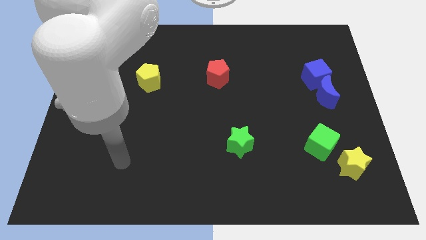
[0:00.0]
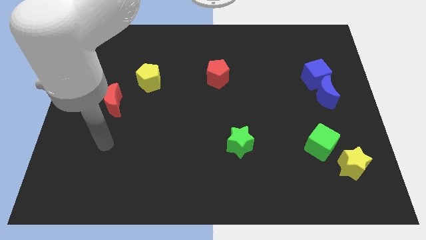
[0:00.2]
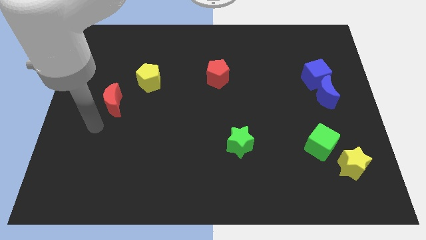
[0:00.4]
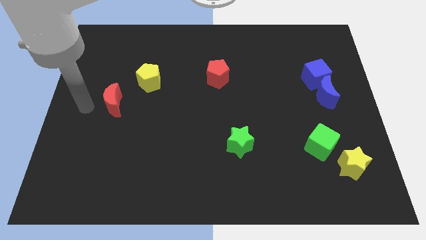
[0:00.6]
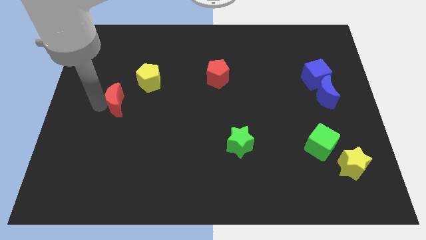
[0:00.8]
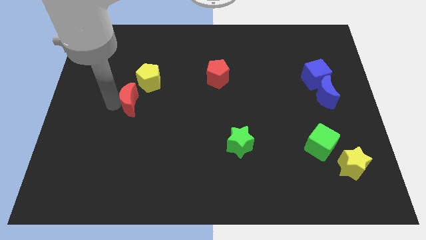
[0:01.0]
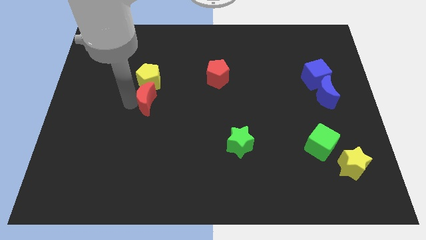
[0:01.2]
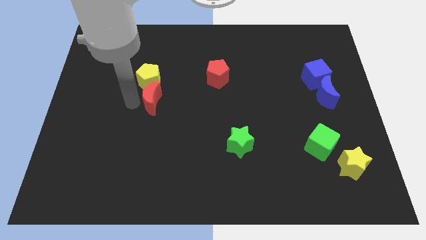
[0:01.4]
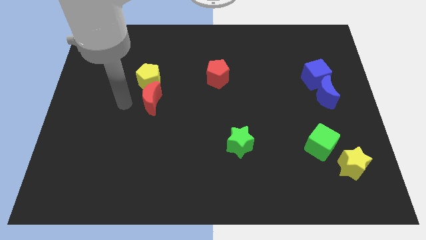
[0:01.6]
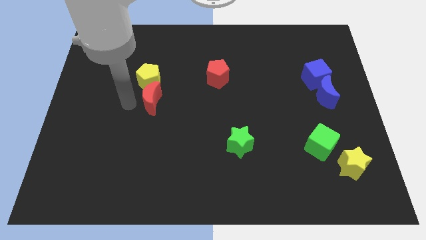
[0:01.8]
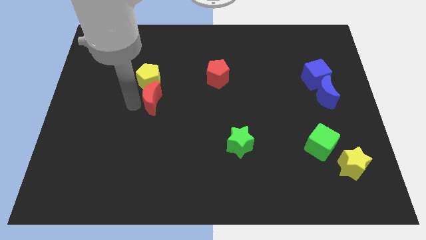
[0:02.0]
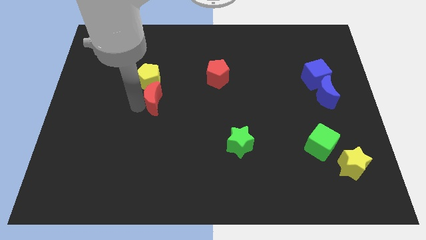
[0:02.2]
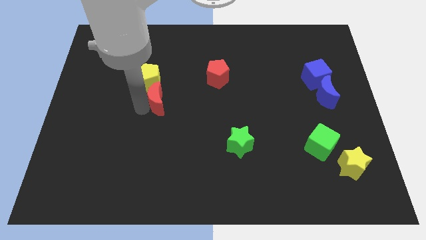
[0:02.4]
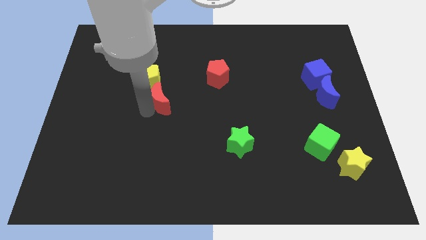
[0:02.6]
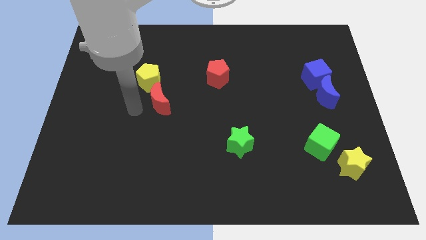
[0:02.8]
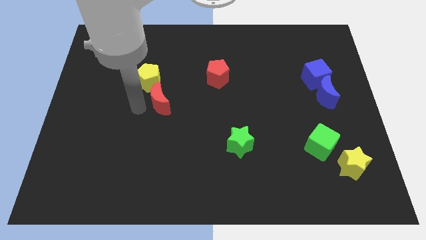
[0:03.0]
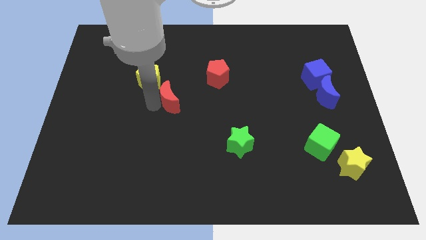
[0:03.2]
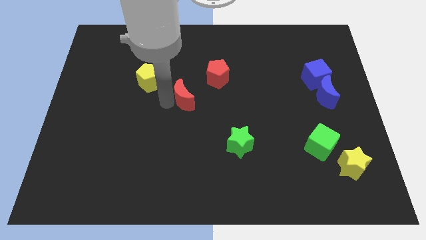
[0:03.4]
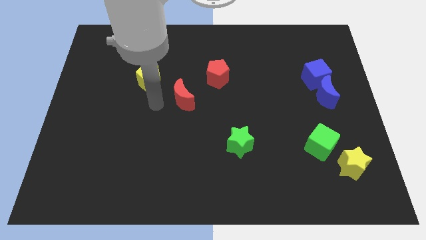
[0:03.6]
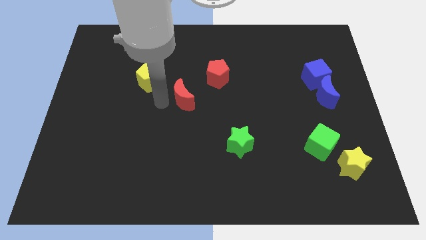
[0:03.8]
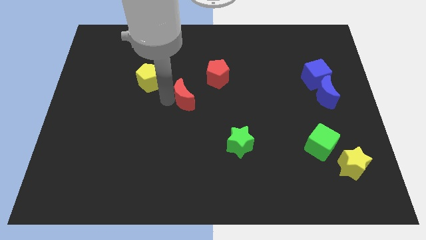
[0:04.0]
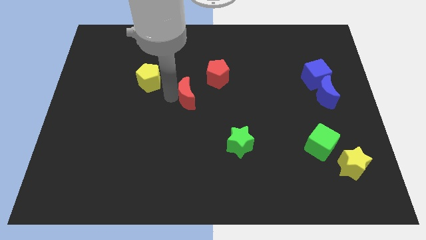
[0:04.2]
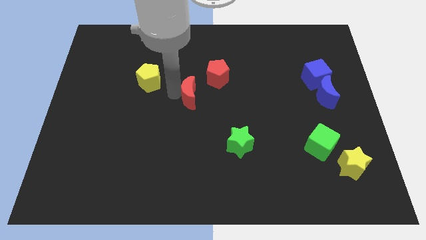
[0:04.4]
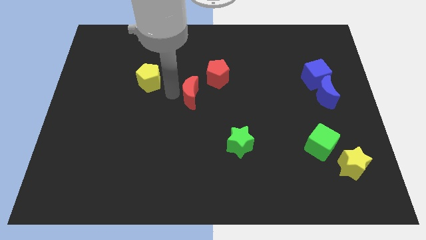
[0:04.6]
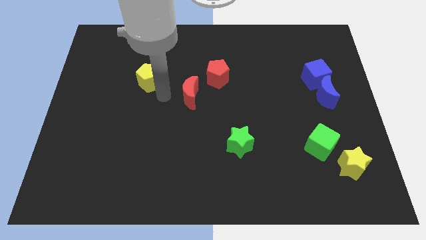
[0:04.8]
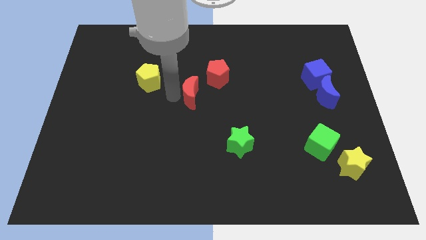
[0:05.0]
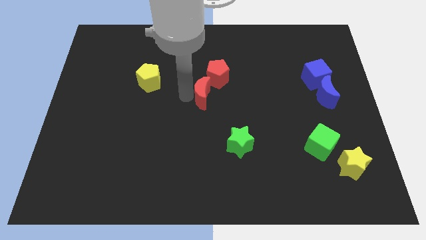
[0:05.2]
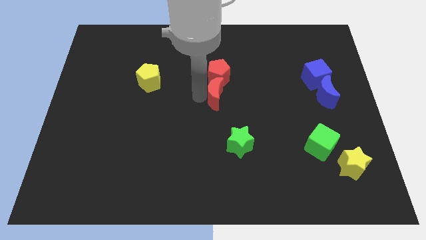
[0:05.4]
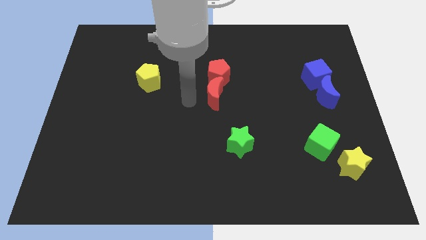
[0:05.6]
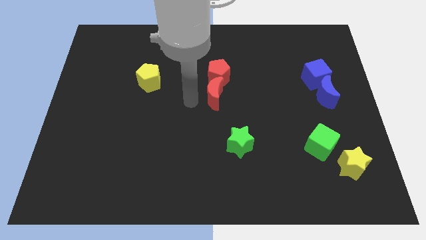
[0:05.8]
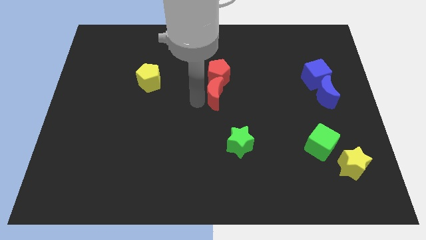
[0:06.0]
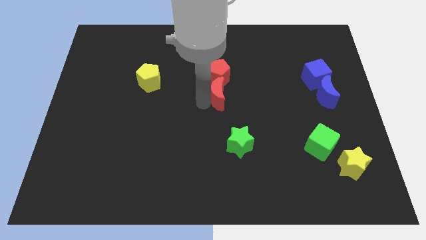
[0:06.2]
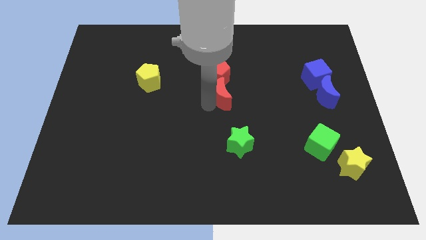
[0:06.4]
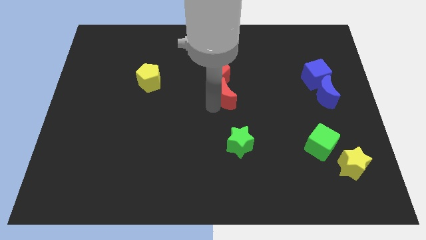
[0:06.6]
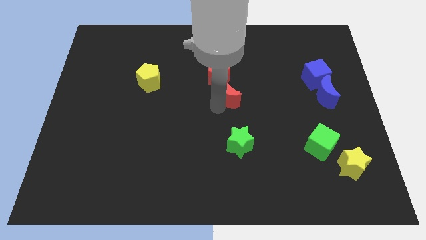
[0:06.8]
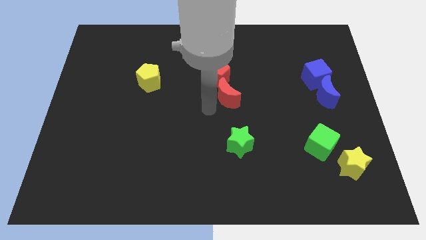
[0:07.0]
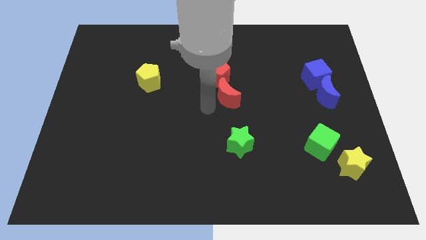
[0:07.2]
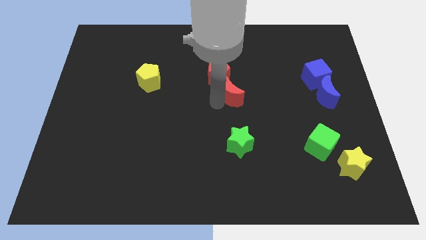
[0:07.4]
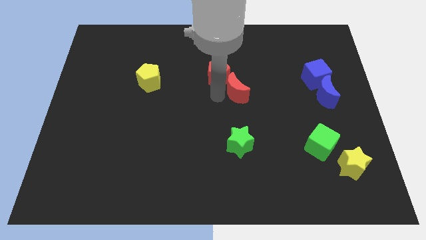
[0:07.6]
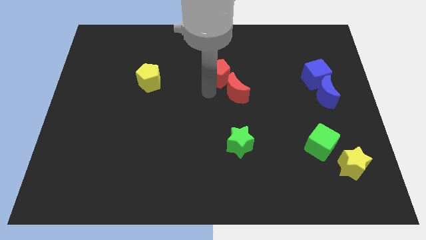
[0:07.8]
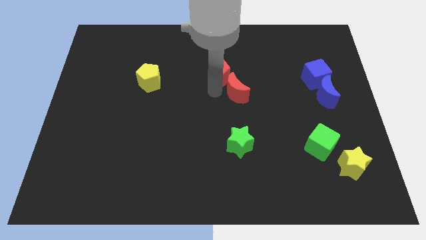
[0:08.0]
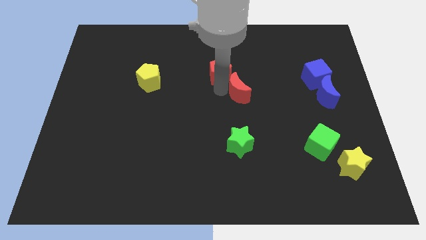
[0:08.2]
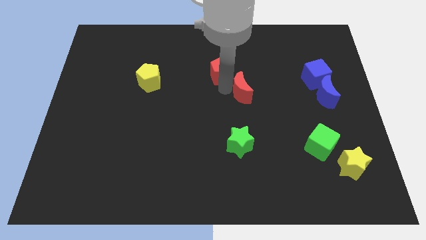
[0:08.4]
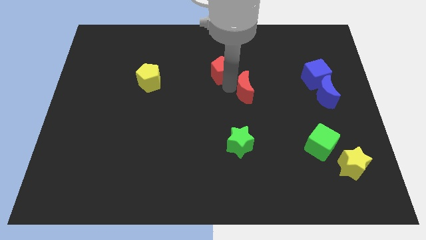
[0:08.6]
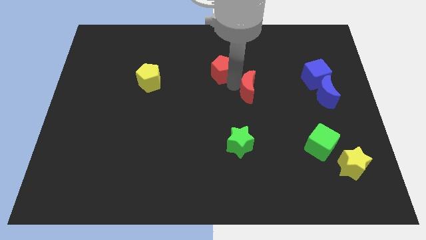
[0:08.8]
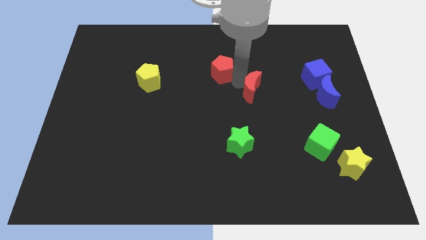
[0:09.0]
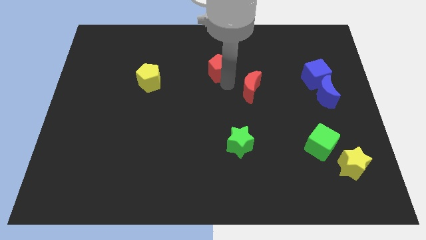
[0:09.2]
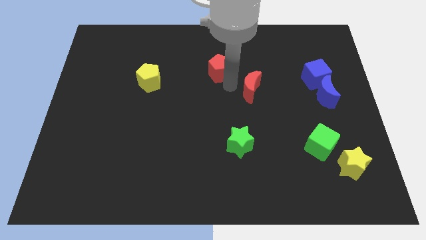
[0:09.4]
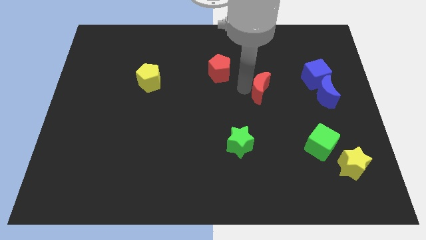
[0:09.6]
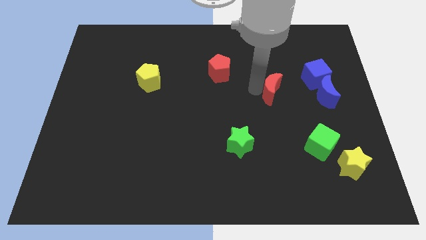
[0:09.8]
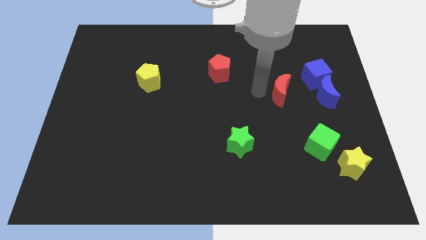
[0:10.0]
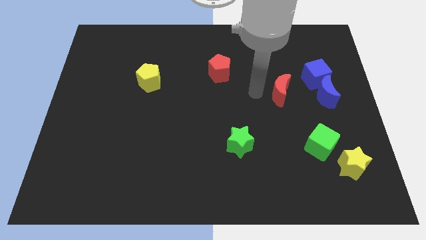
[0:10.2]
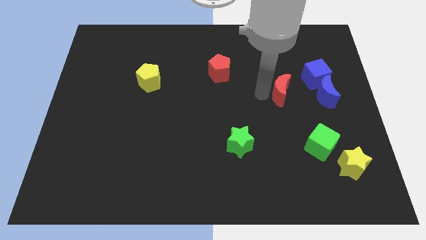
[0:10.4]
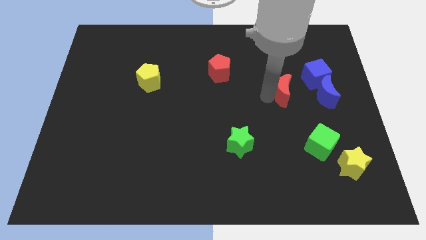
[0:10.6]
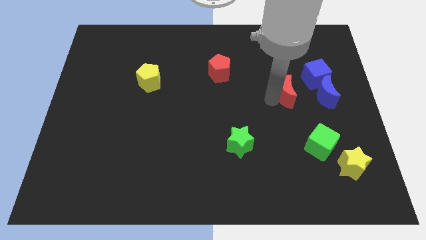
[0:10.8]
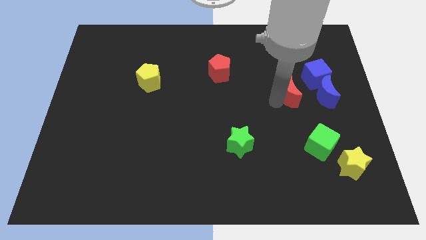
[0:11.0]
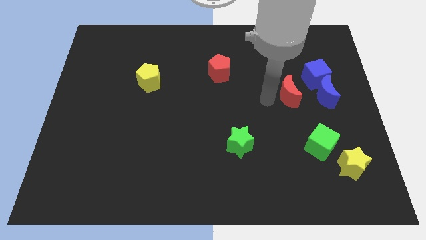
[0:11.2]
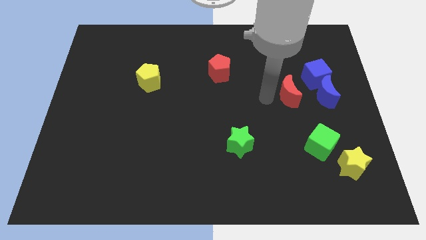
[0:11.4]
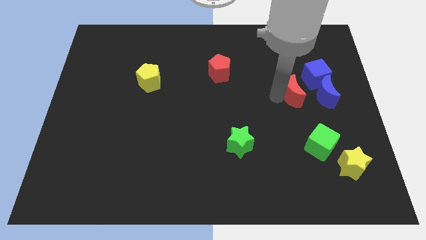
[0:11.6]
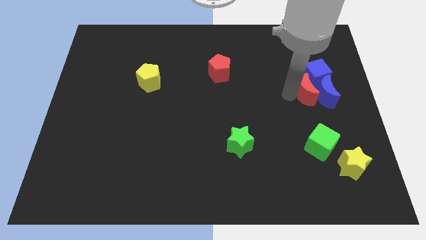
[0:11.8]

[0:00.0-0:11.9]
move the red moon towards the blue moon

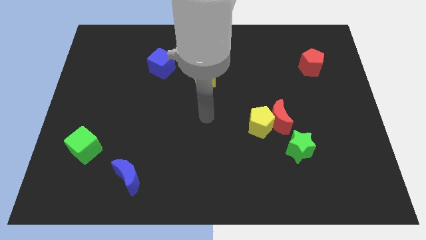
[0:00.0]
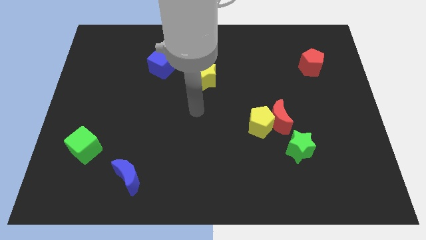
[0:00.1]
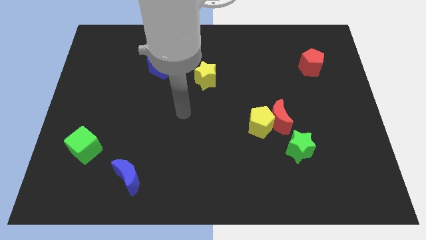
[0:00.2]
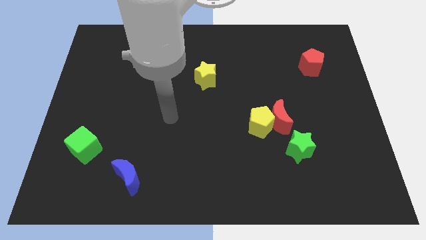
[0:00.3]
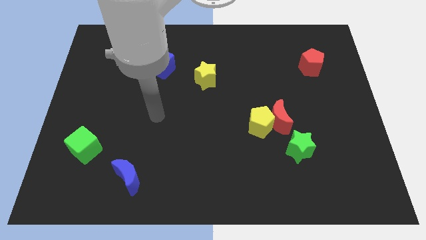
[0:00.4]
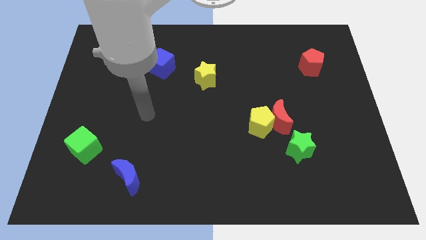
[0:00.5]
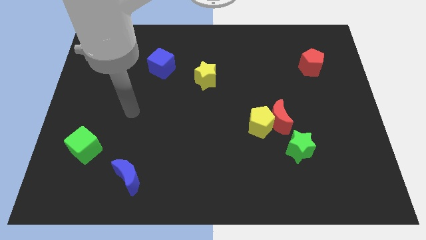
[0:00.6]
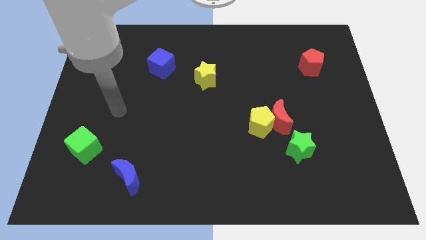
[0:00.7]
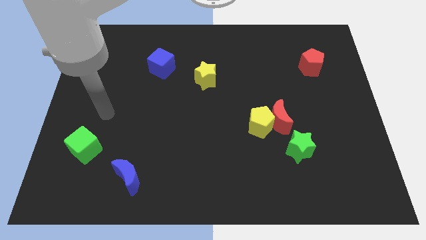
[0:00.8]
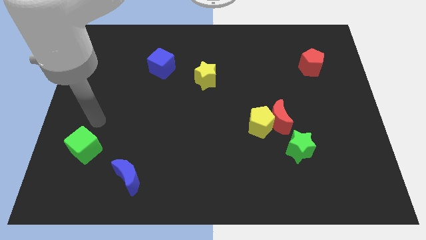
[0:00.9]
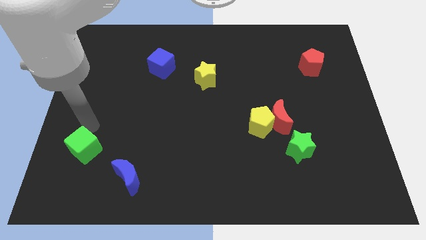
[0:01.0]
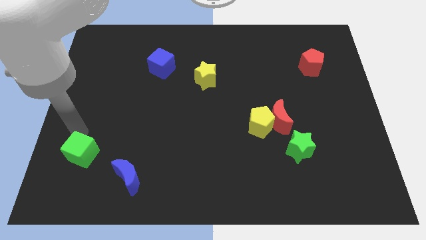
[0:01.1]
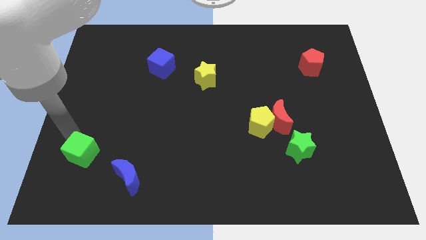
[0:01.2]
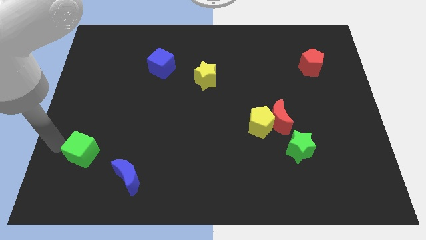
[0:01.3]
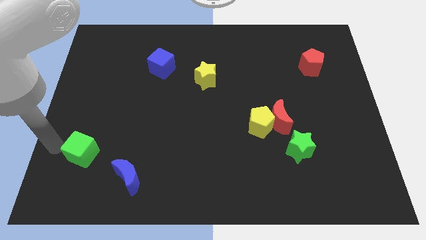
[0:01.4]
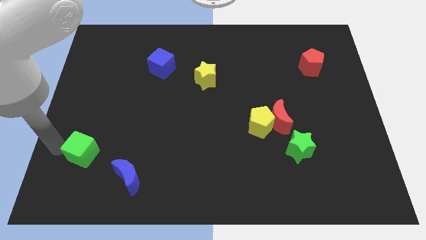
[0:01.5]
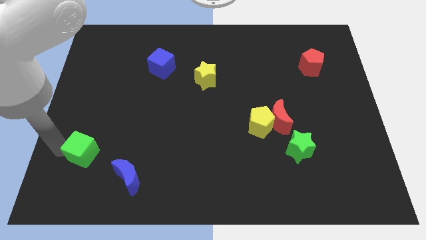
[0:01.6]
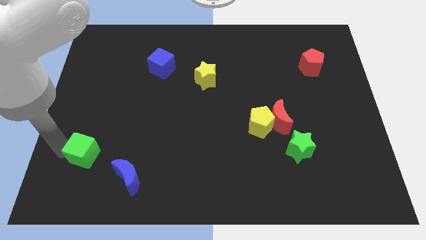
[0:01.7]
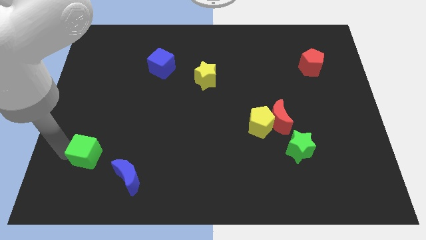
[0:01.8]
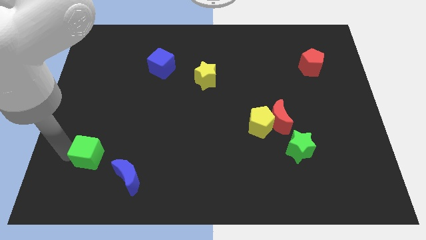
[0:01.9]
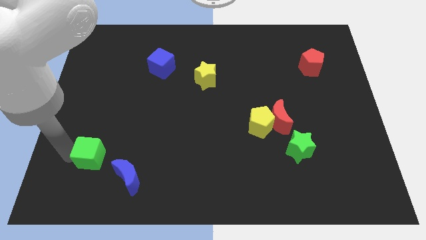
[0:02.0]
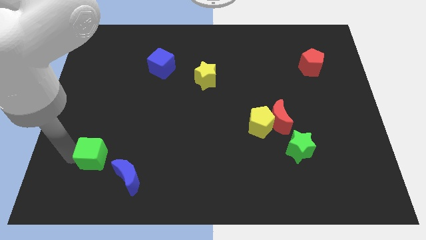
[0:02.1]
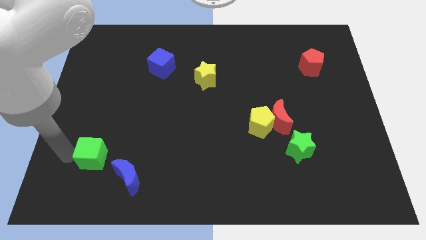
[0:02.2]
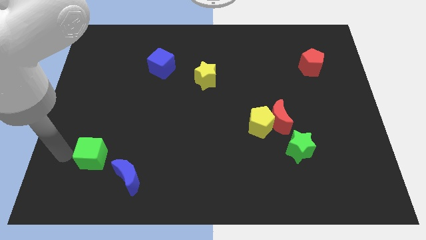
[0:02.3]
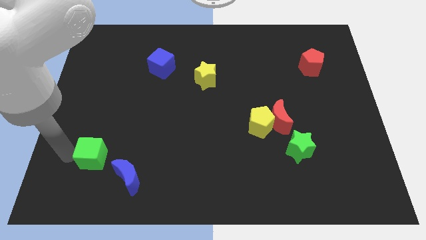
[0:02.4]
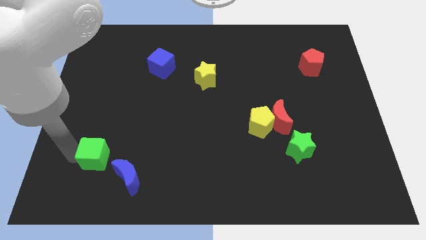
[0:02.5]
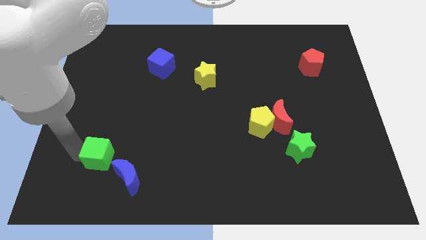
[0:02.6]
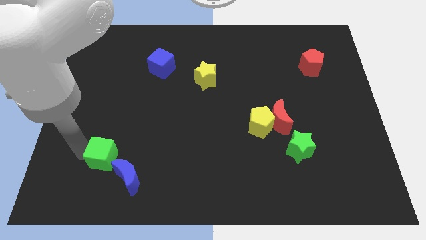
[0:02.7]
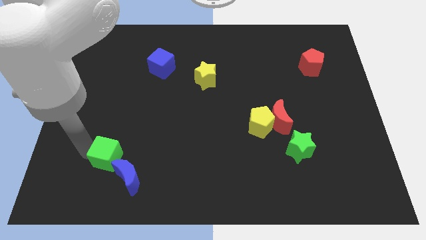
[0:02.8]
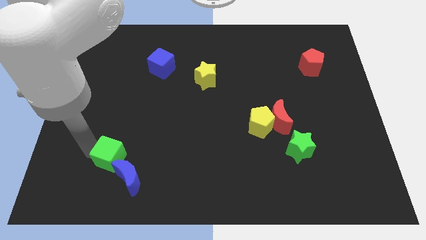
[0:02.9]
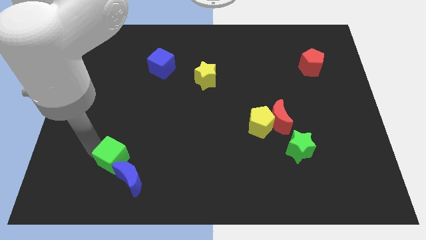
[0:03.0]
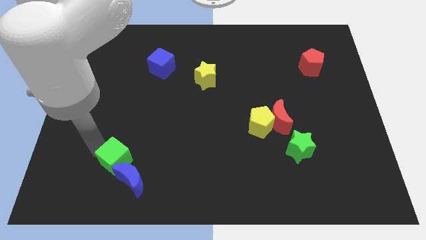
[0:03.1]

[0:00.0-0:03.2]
push the green cube towards the blue moon
